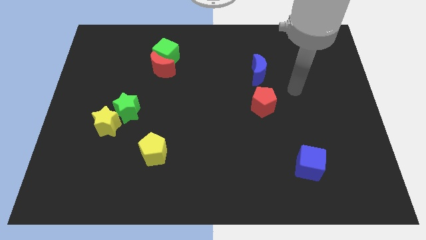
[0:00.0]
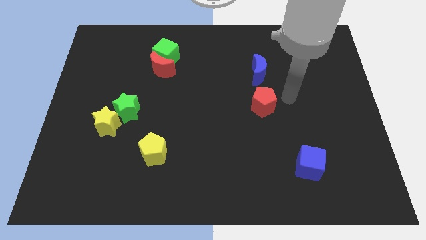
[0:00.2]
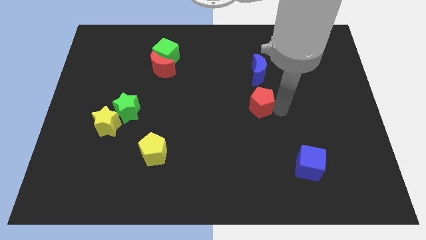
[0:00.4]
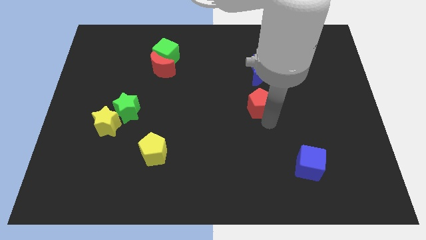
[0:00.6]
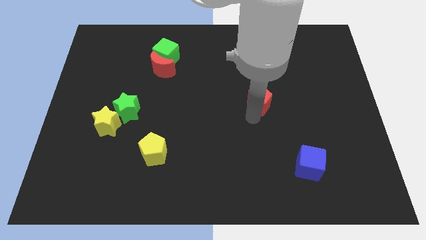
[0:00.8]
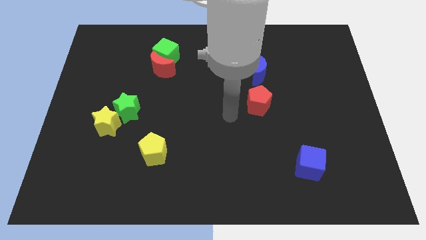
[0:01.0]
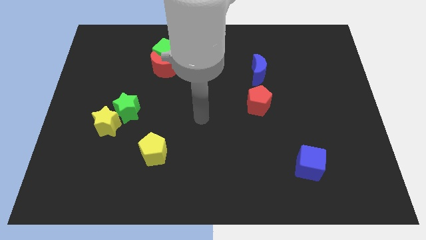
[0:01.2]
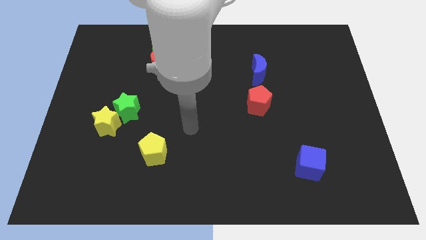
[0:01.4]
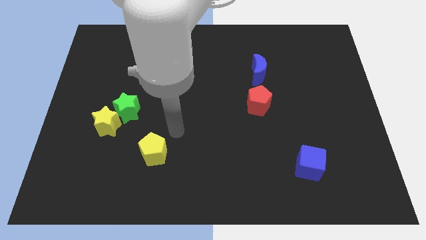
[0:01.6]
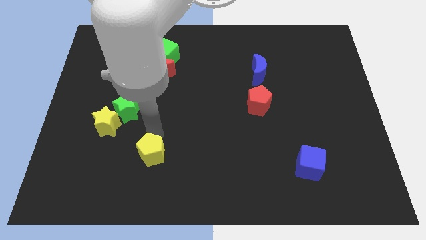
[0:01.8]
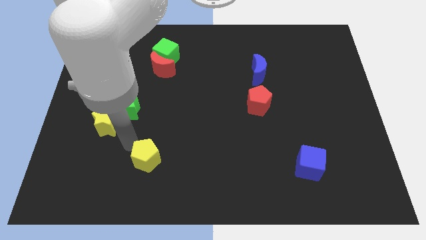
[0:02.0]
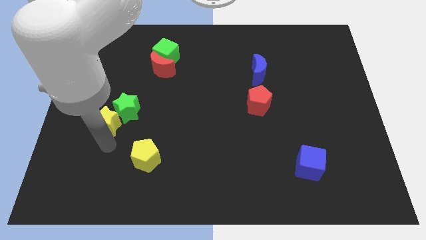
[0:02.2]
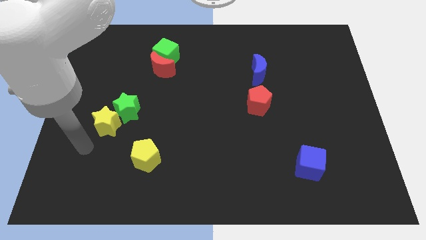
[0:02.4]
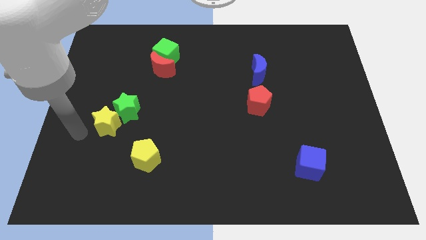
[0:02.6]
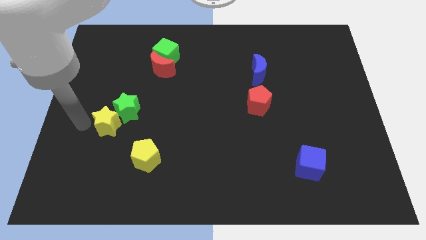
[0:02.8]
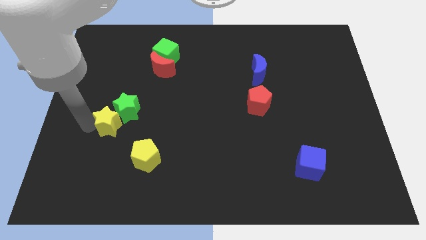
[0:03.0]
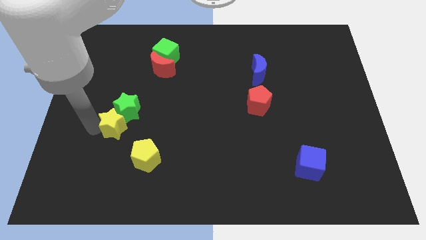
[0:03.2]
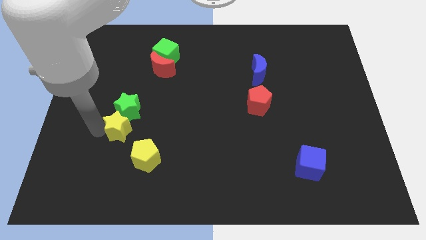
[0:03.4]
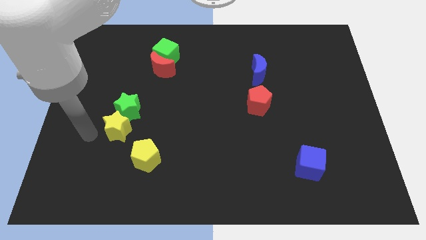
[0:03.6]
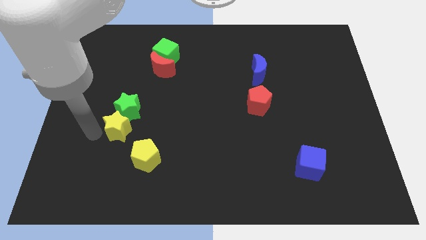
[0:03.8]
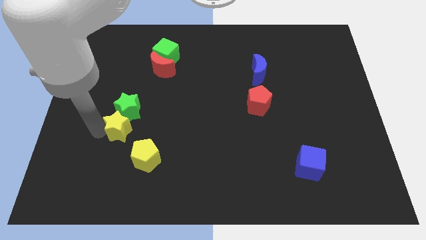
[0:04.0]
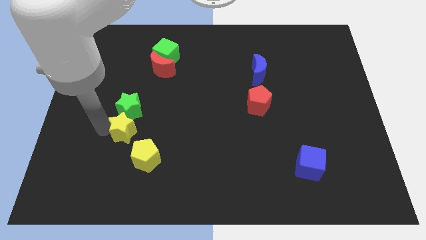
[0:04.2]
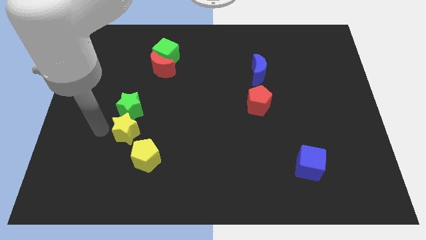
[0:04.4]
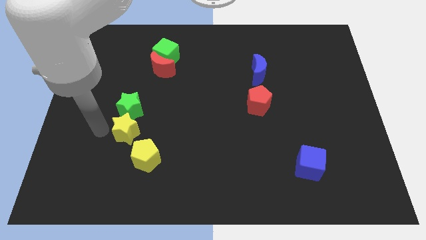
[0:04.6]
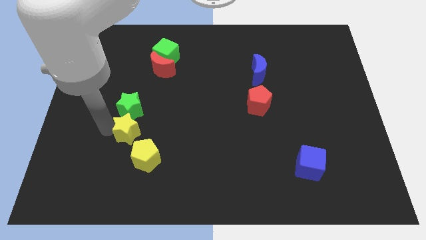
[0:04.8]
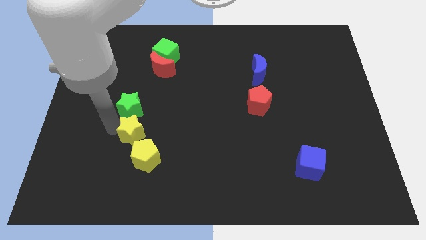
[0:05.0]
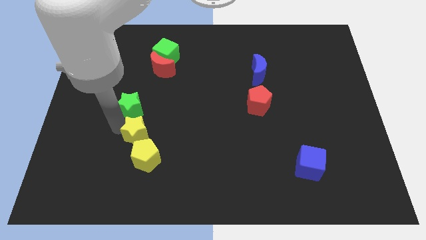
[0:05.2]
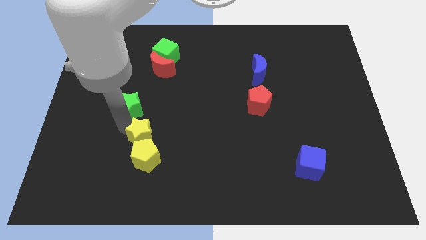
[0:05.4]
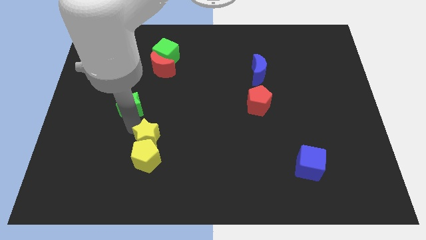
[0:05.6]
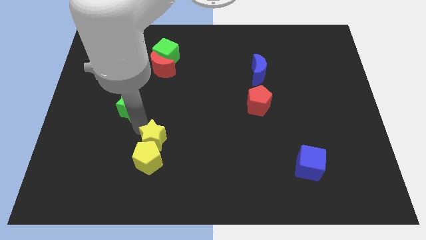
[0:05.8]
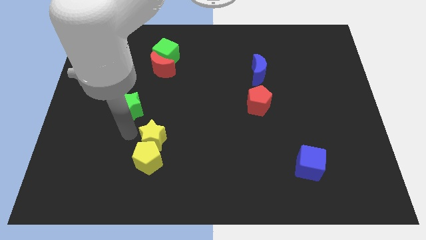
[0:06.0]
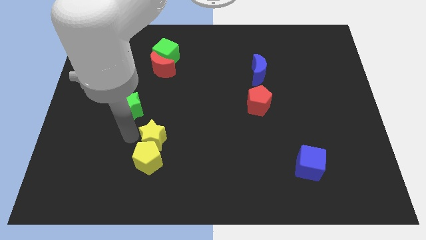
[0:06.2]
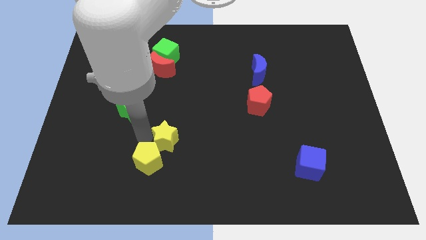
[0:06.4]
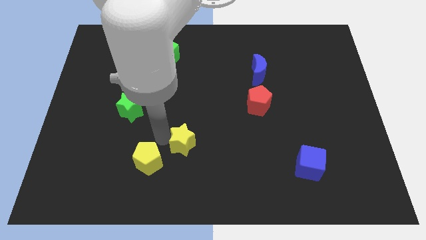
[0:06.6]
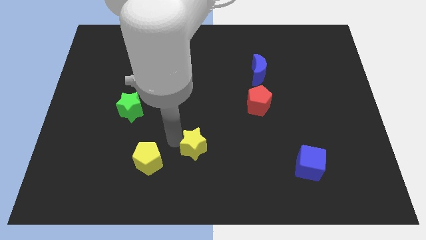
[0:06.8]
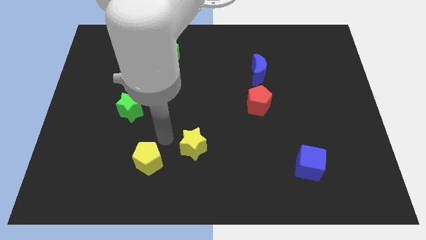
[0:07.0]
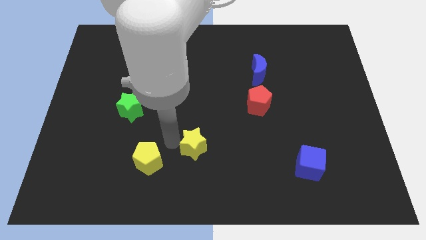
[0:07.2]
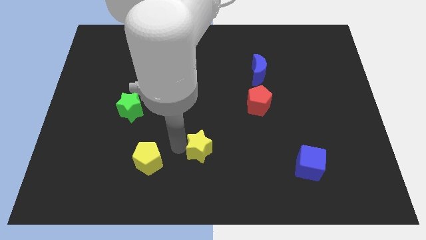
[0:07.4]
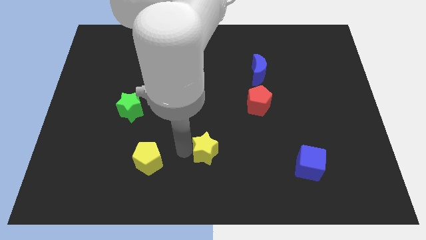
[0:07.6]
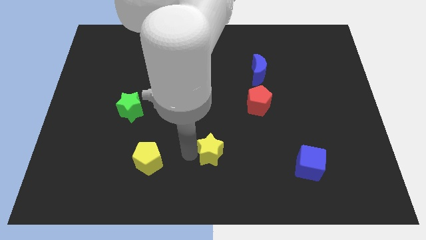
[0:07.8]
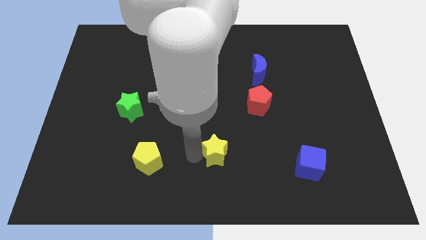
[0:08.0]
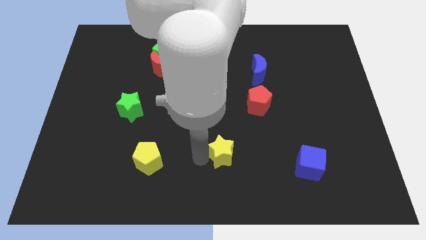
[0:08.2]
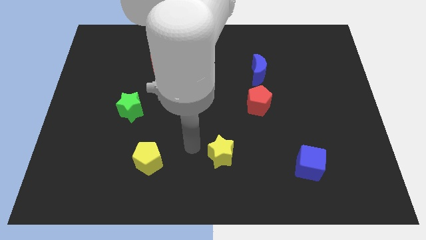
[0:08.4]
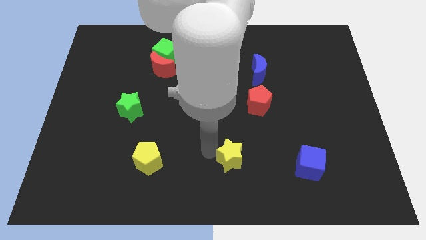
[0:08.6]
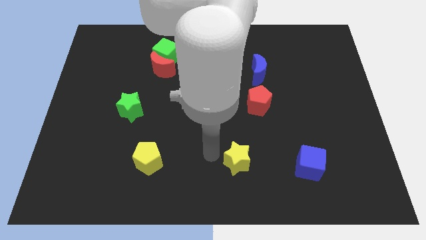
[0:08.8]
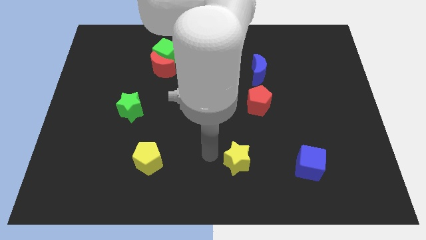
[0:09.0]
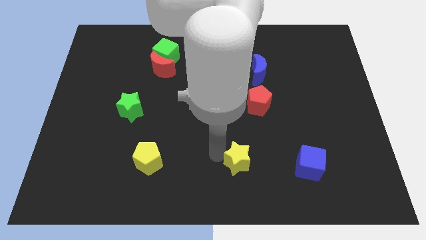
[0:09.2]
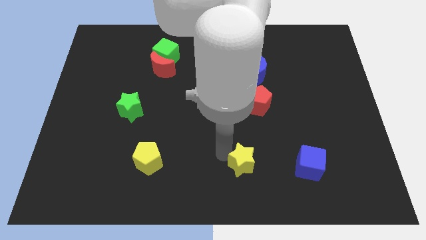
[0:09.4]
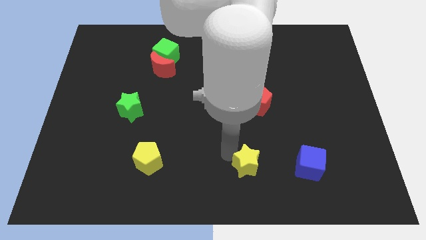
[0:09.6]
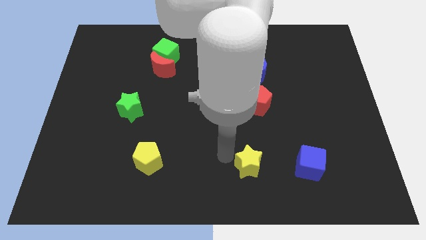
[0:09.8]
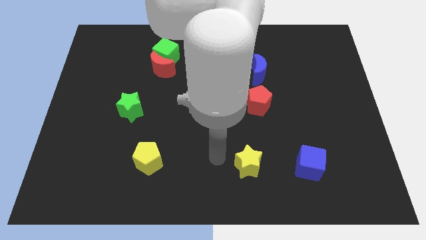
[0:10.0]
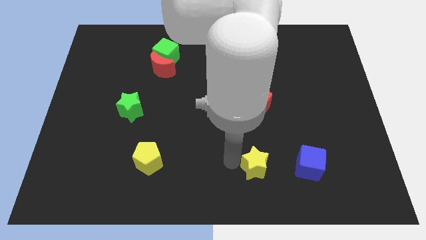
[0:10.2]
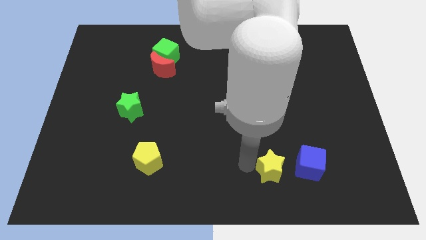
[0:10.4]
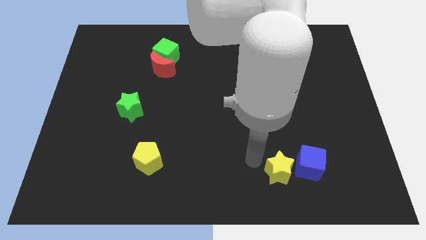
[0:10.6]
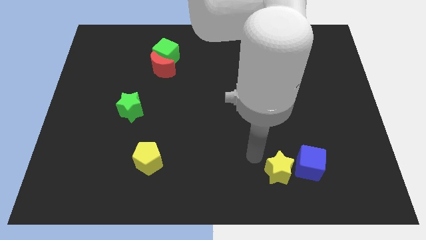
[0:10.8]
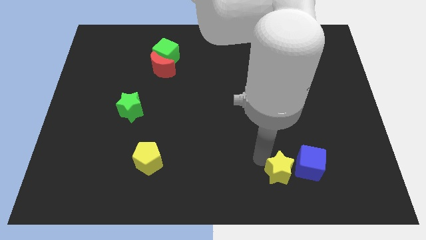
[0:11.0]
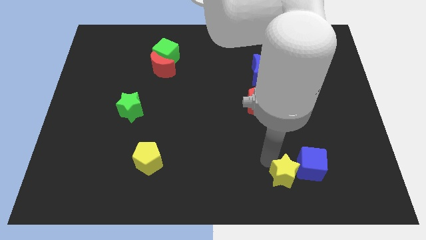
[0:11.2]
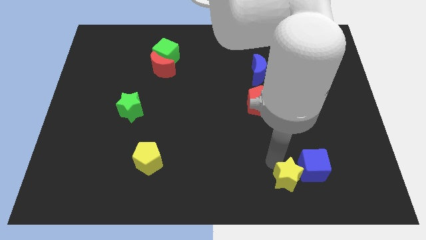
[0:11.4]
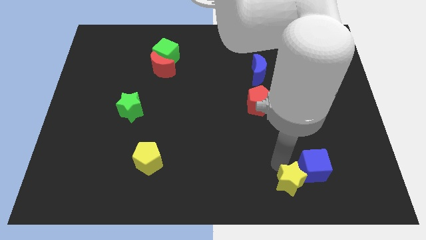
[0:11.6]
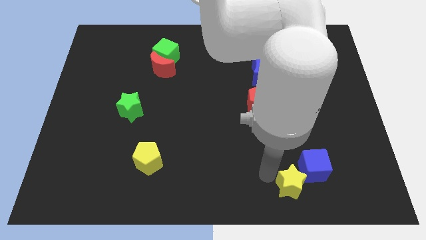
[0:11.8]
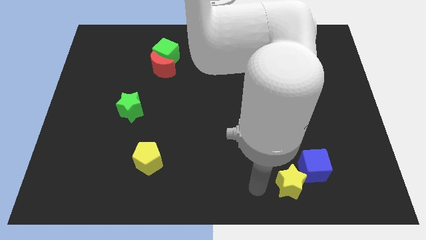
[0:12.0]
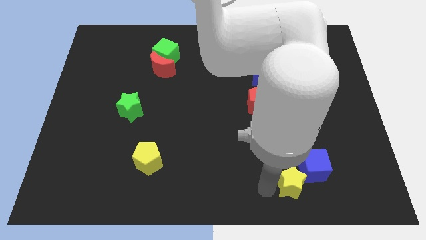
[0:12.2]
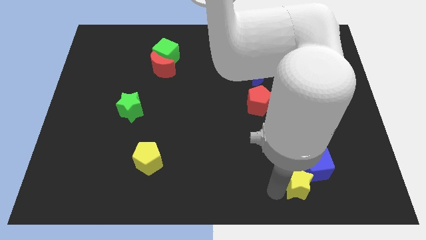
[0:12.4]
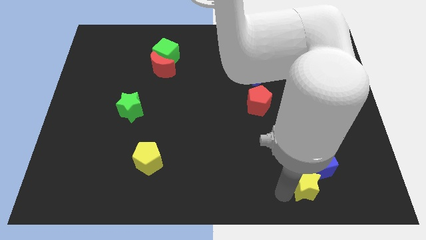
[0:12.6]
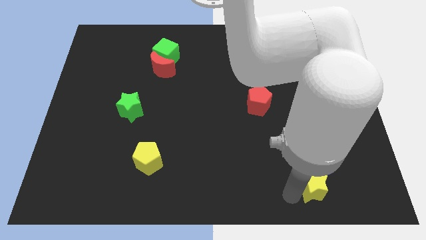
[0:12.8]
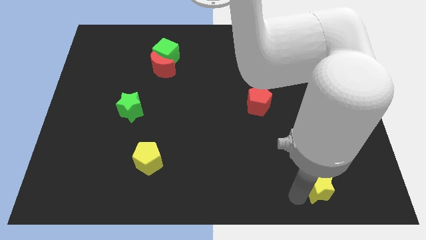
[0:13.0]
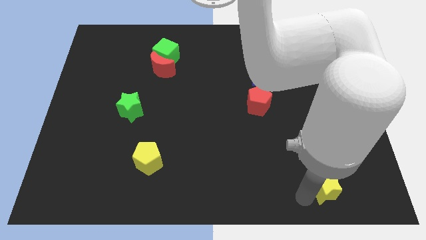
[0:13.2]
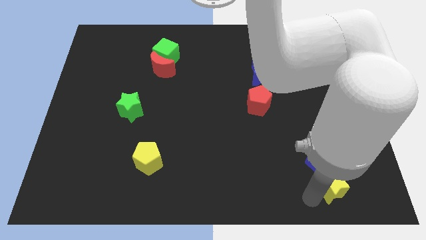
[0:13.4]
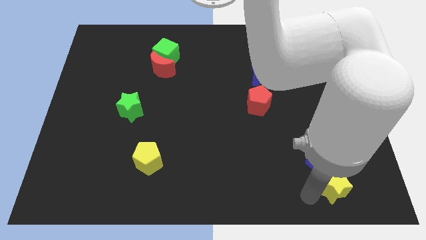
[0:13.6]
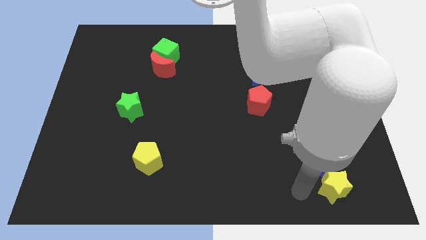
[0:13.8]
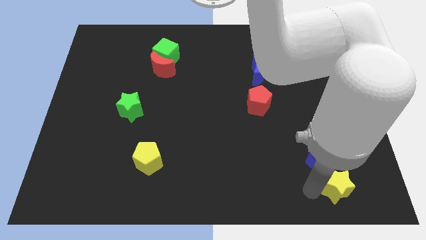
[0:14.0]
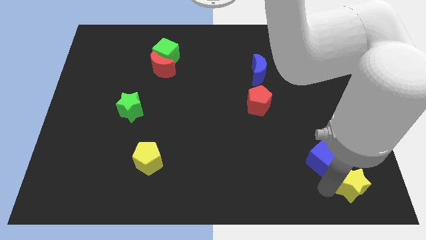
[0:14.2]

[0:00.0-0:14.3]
move the yellow star to the bottom right of the board
